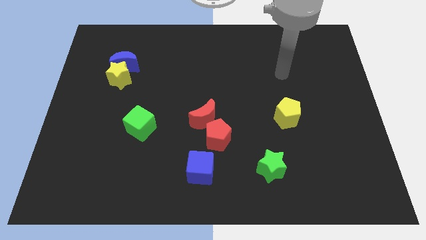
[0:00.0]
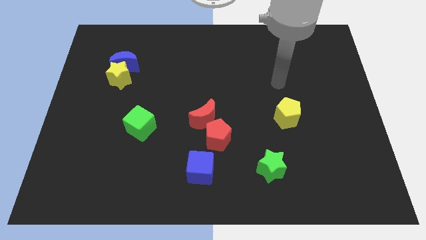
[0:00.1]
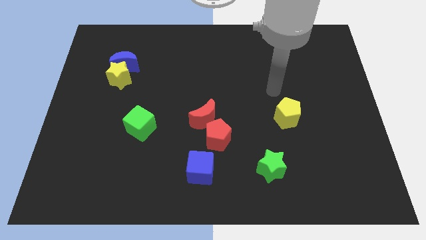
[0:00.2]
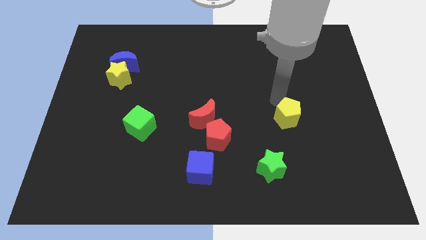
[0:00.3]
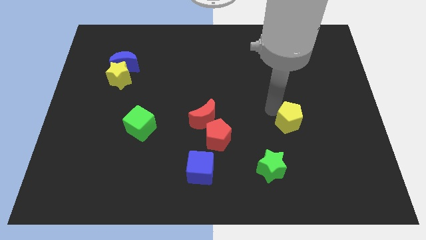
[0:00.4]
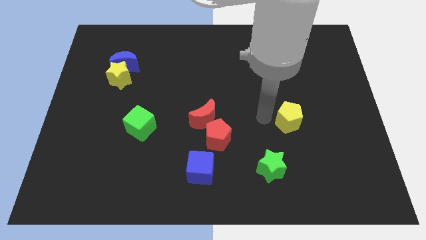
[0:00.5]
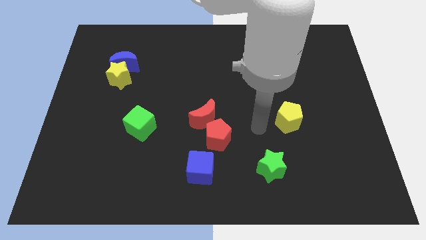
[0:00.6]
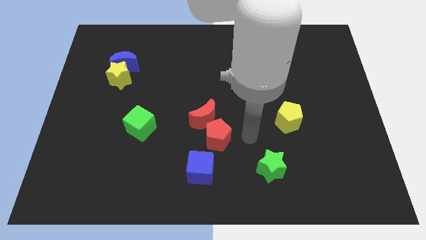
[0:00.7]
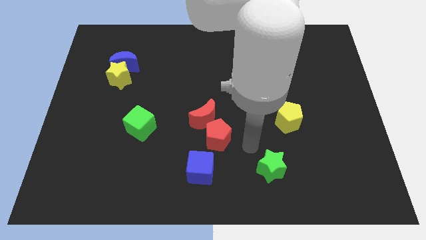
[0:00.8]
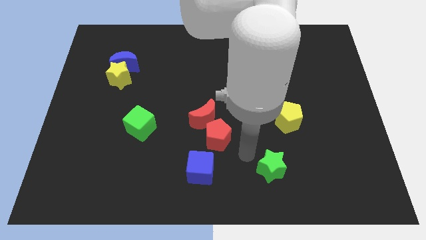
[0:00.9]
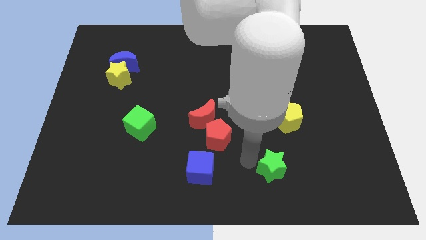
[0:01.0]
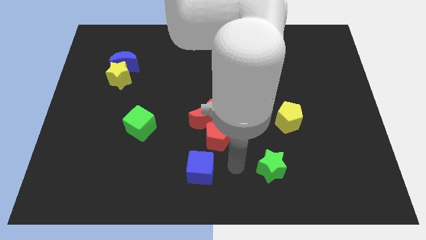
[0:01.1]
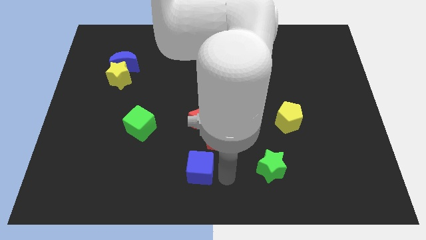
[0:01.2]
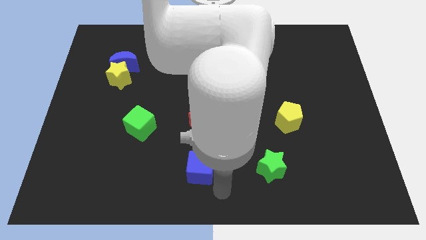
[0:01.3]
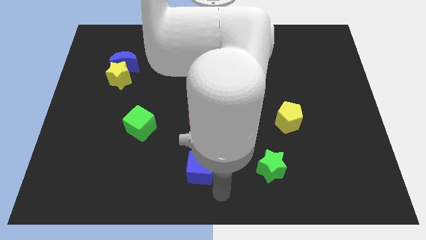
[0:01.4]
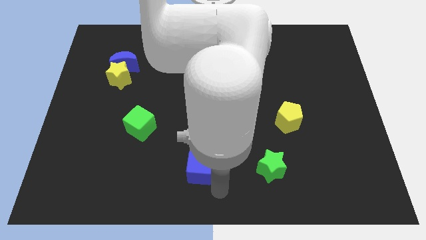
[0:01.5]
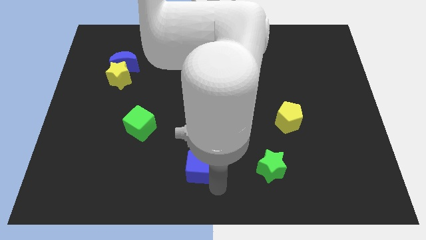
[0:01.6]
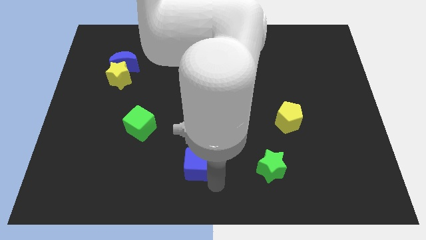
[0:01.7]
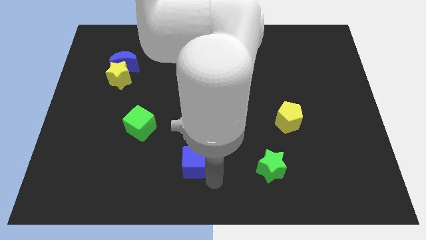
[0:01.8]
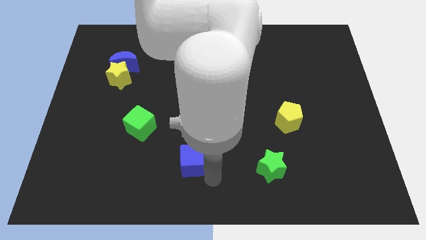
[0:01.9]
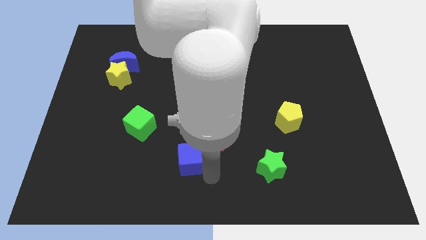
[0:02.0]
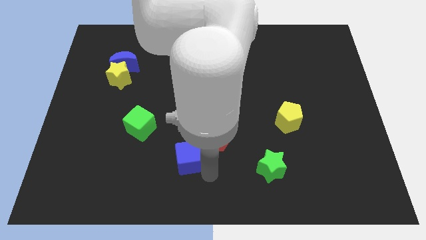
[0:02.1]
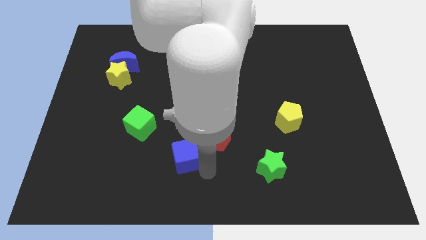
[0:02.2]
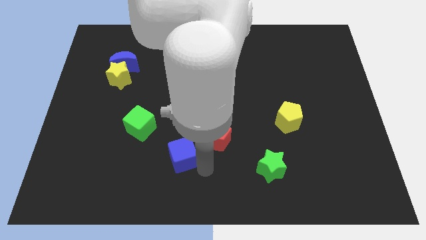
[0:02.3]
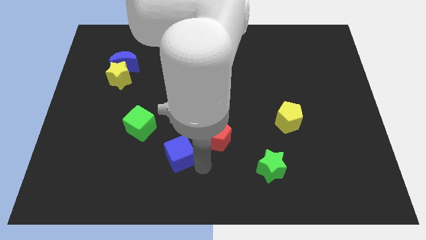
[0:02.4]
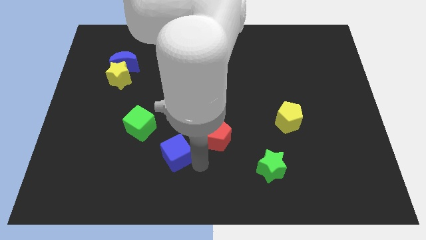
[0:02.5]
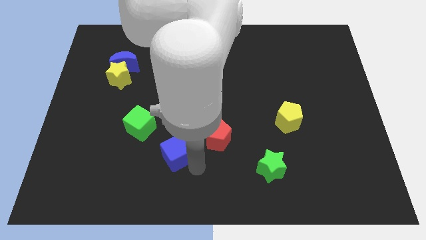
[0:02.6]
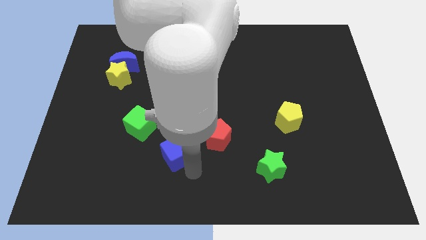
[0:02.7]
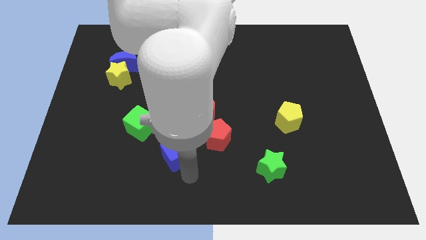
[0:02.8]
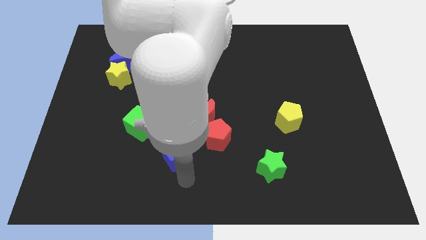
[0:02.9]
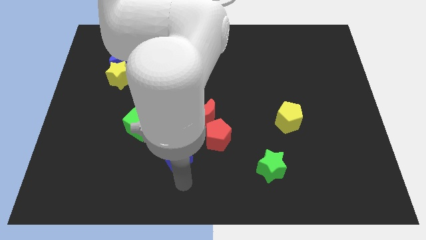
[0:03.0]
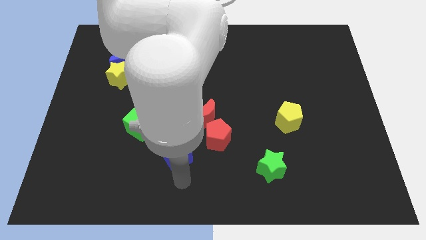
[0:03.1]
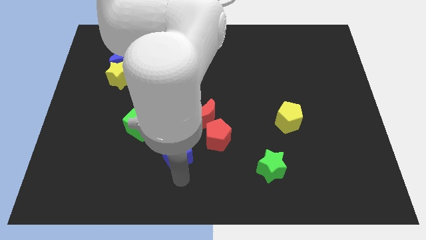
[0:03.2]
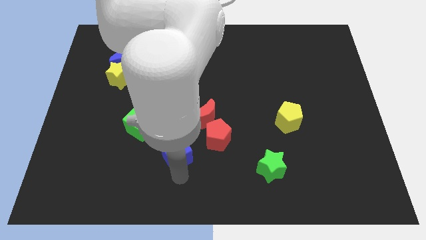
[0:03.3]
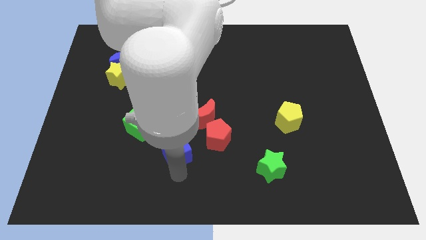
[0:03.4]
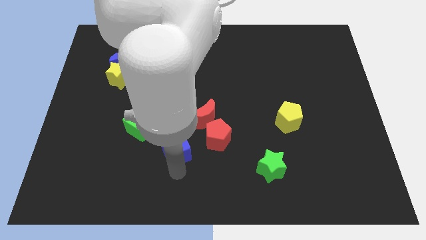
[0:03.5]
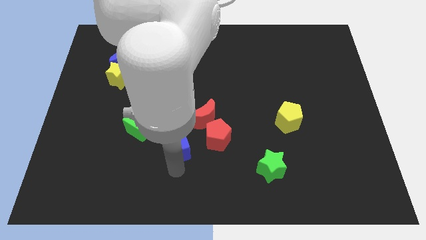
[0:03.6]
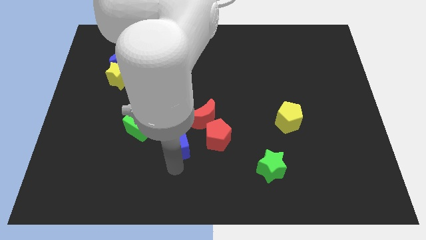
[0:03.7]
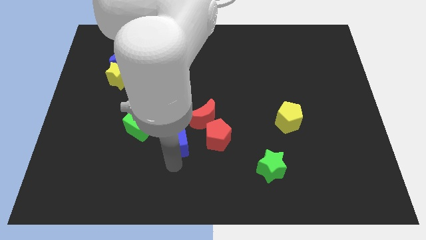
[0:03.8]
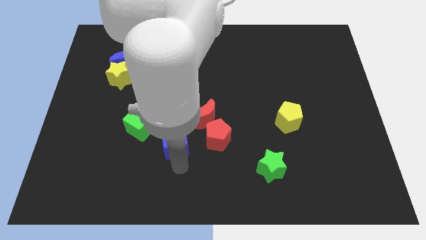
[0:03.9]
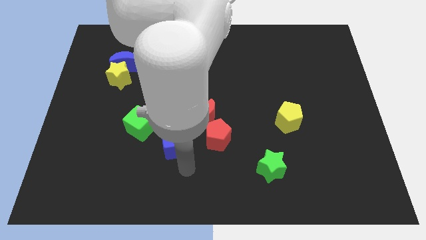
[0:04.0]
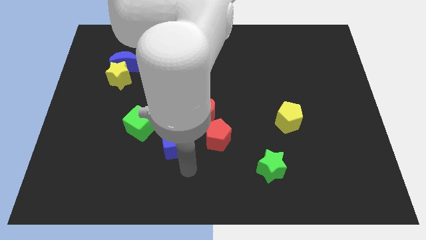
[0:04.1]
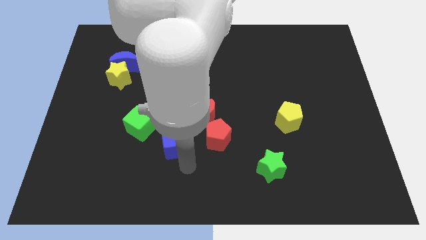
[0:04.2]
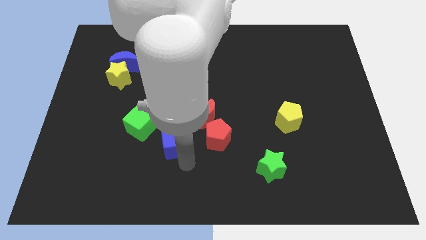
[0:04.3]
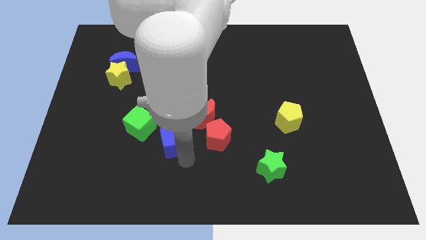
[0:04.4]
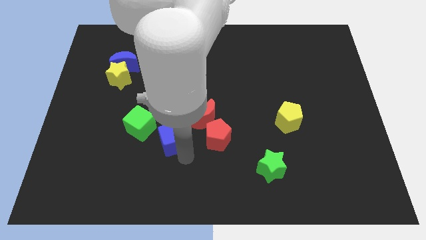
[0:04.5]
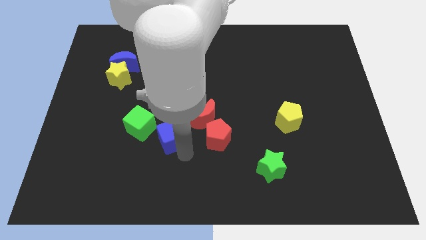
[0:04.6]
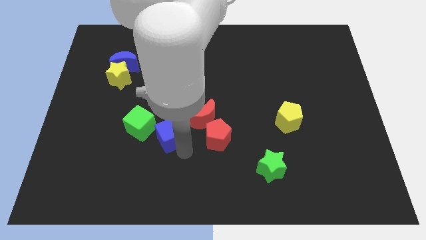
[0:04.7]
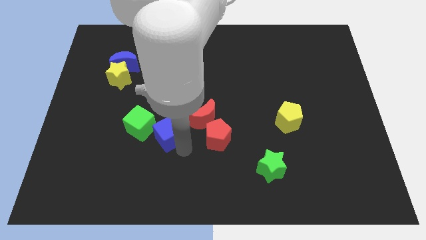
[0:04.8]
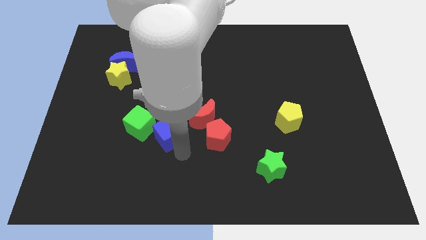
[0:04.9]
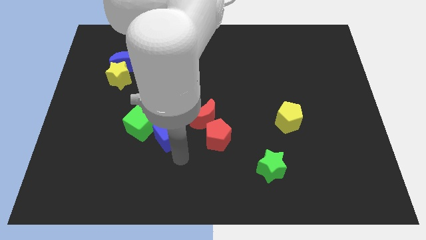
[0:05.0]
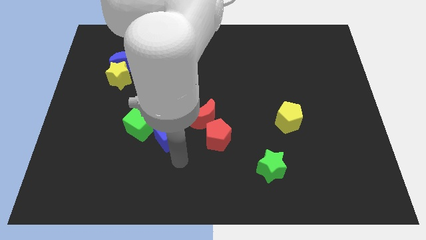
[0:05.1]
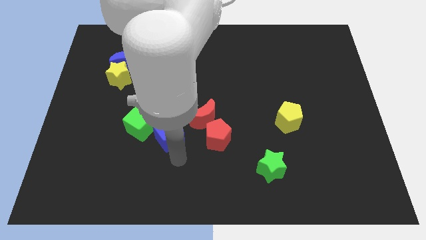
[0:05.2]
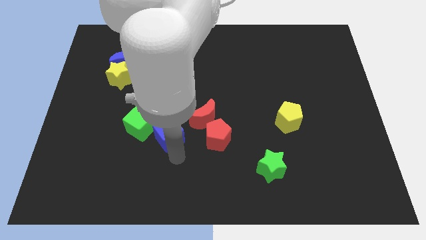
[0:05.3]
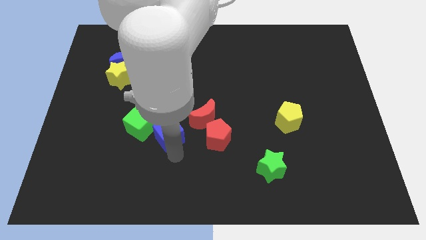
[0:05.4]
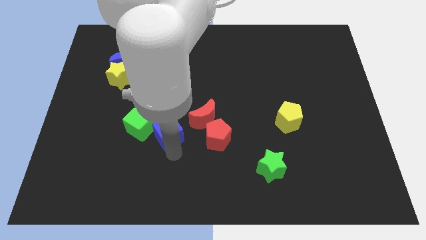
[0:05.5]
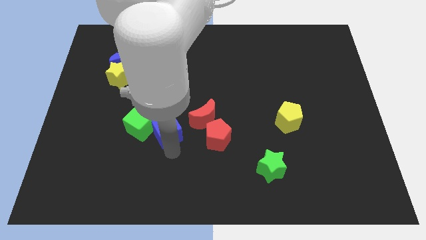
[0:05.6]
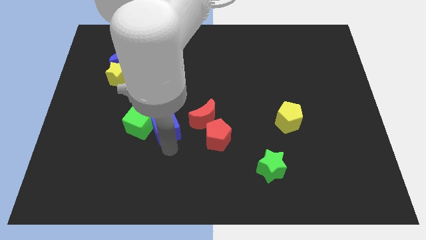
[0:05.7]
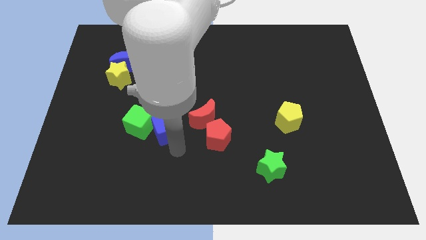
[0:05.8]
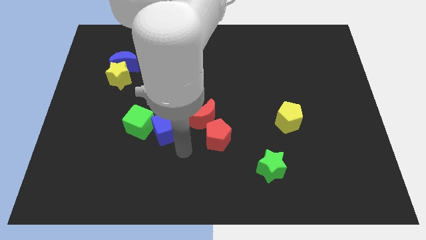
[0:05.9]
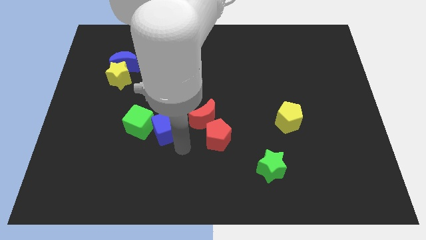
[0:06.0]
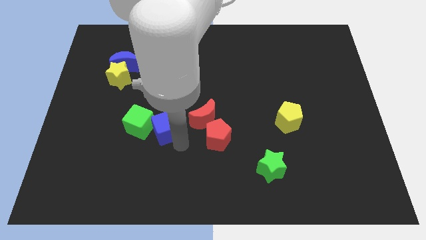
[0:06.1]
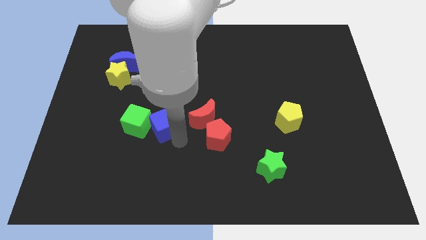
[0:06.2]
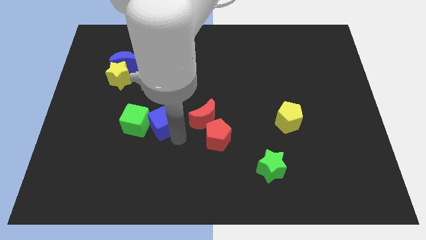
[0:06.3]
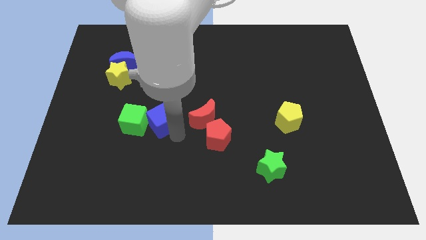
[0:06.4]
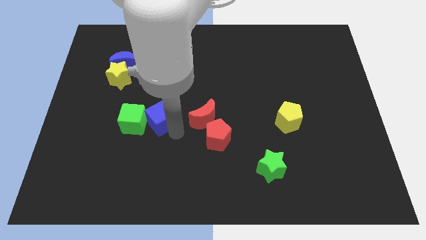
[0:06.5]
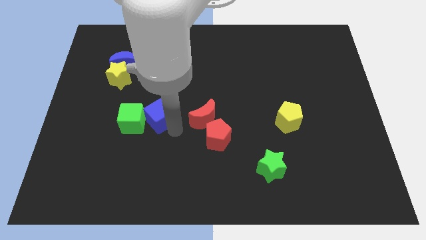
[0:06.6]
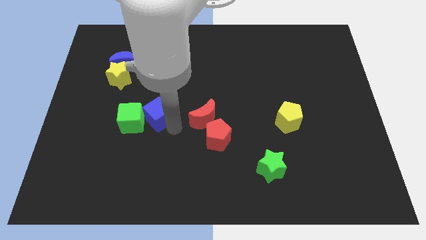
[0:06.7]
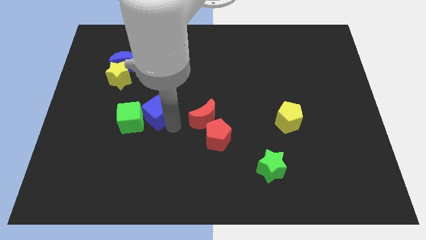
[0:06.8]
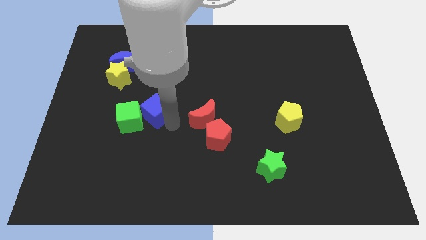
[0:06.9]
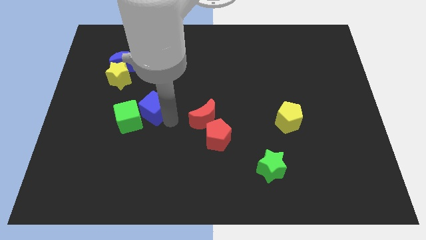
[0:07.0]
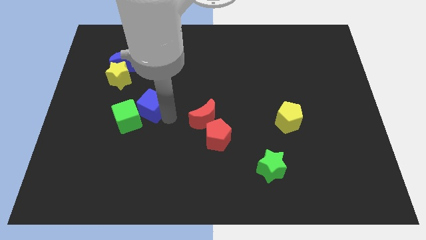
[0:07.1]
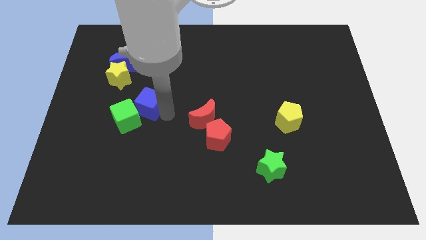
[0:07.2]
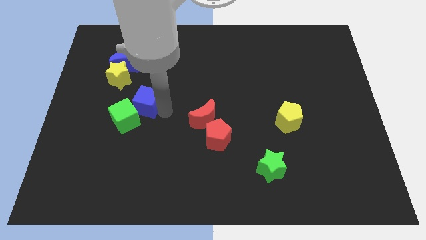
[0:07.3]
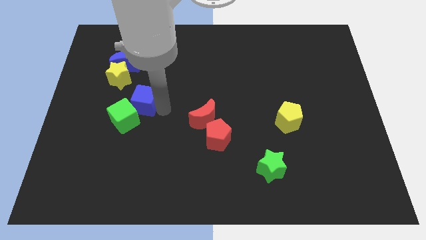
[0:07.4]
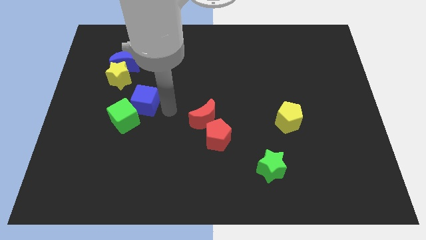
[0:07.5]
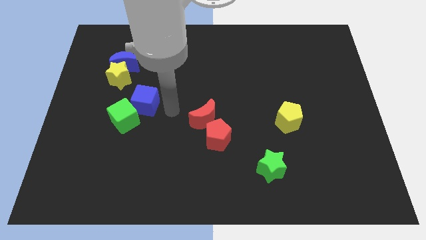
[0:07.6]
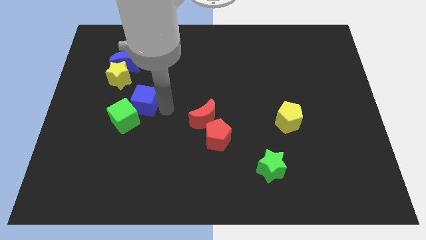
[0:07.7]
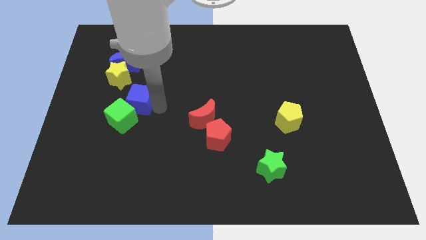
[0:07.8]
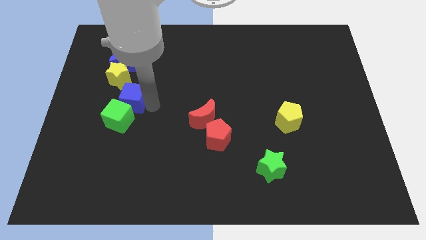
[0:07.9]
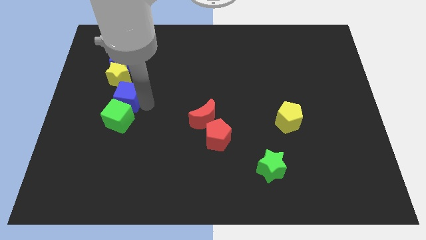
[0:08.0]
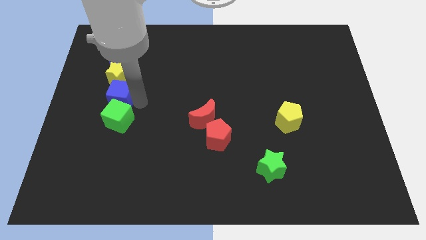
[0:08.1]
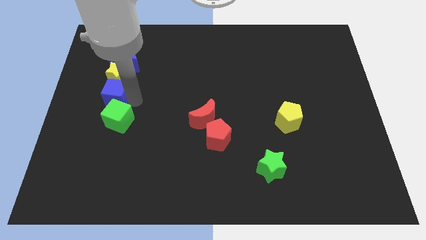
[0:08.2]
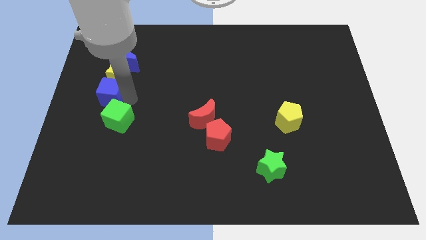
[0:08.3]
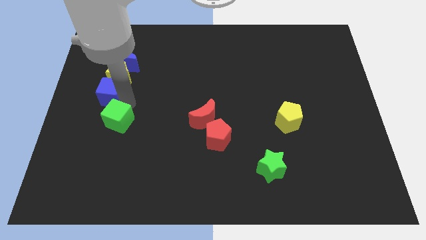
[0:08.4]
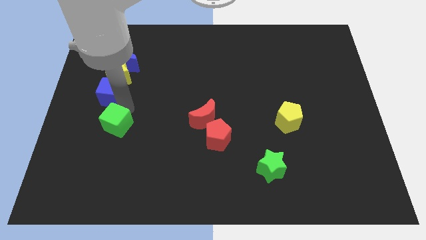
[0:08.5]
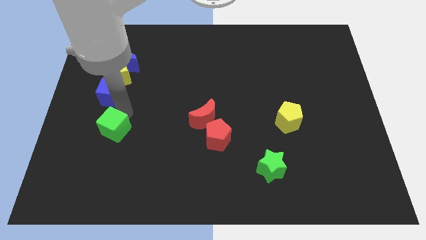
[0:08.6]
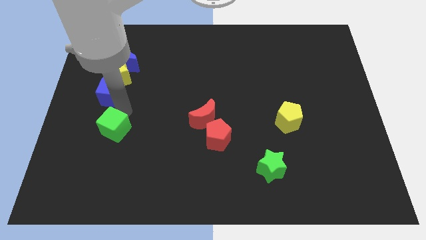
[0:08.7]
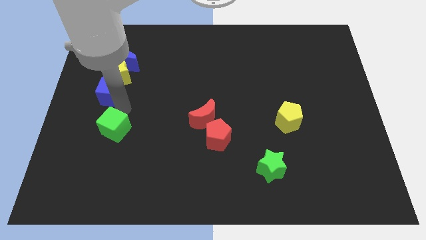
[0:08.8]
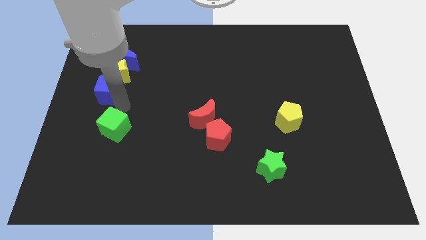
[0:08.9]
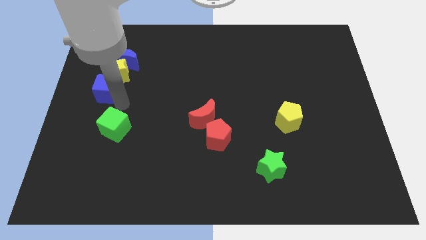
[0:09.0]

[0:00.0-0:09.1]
put the blue cube to the bottom left side of the blue moon
